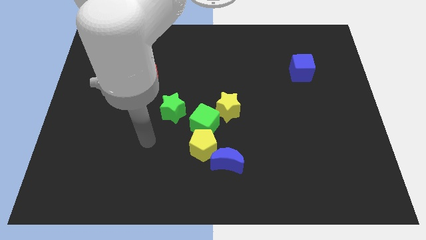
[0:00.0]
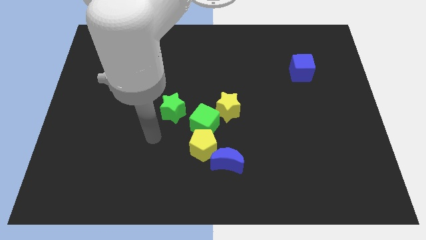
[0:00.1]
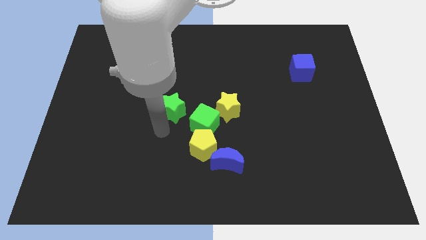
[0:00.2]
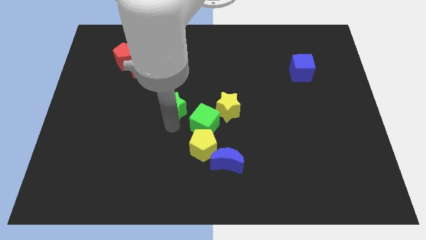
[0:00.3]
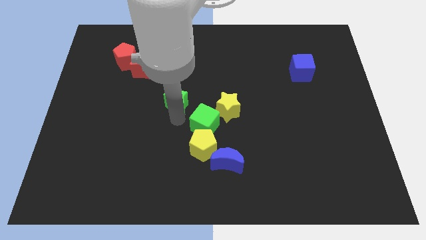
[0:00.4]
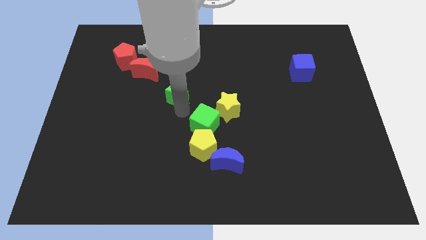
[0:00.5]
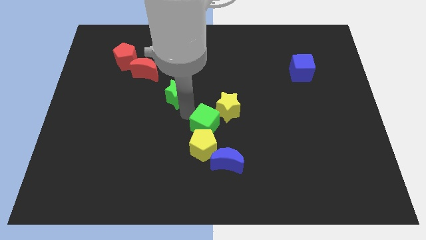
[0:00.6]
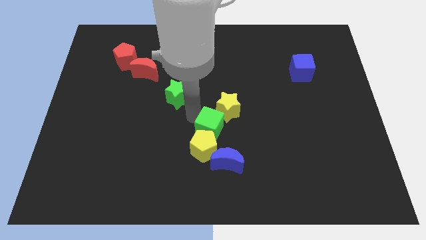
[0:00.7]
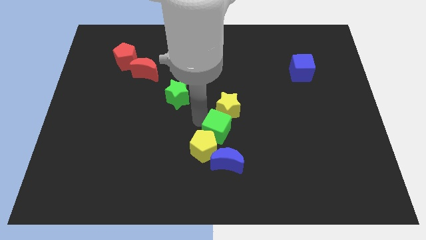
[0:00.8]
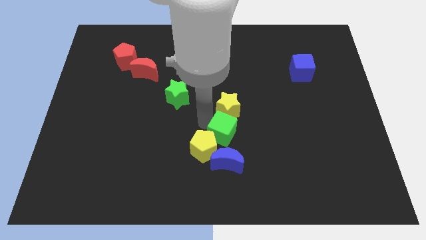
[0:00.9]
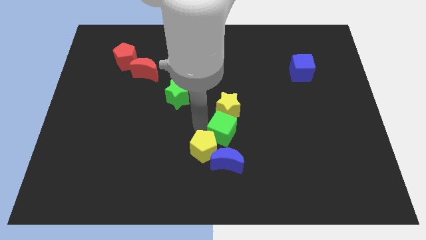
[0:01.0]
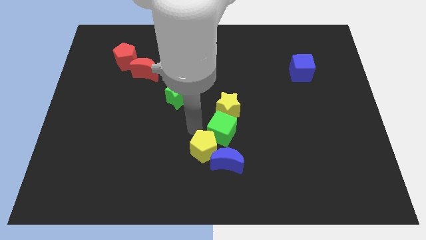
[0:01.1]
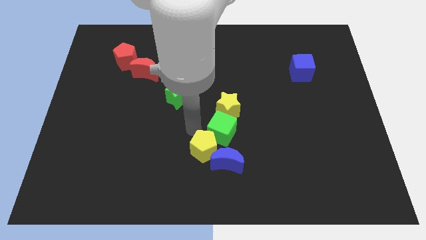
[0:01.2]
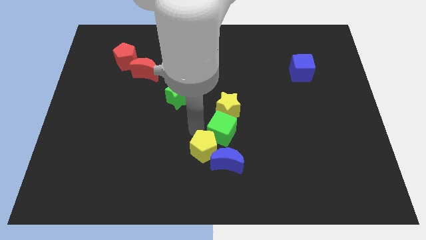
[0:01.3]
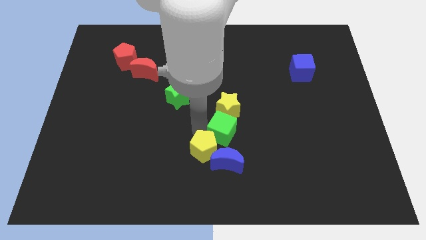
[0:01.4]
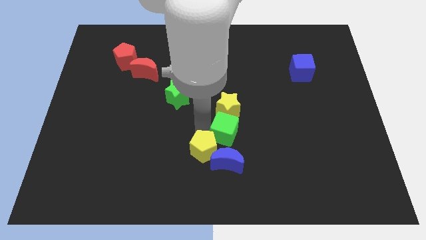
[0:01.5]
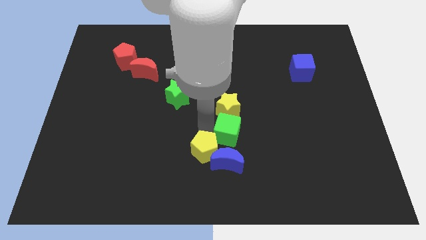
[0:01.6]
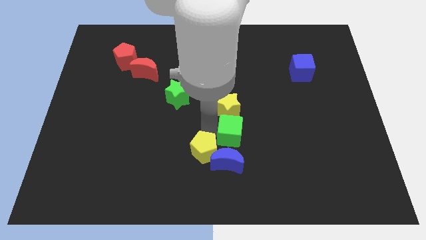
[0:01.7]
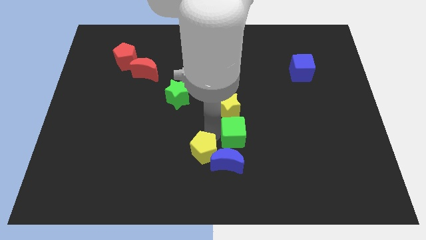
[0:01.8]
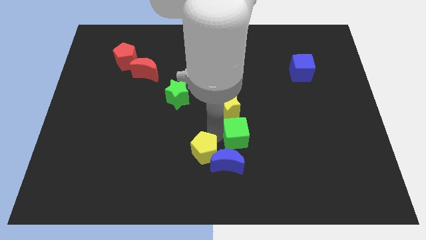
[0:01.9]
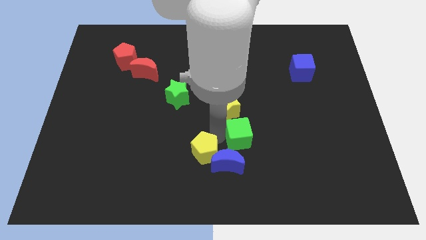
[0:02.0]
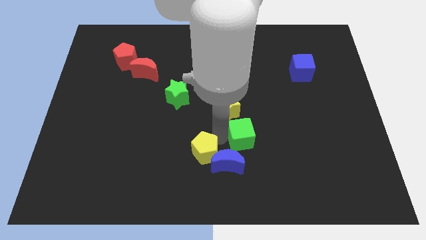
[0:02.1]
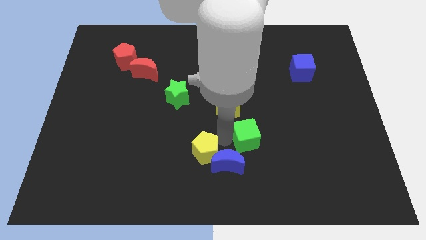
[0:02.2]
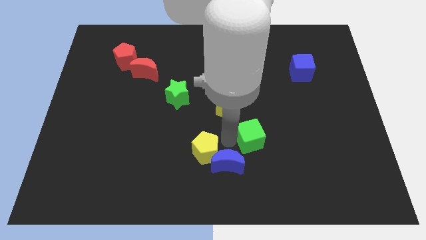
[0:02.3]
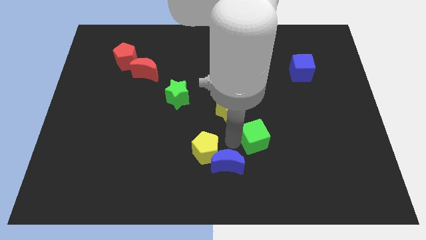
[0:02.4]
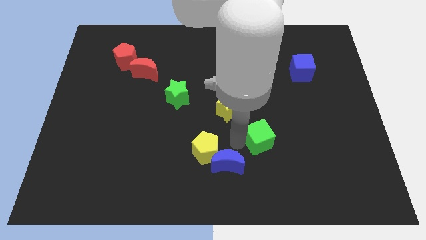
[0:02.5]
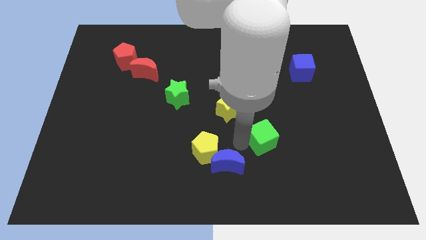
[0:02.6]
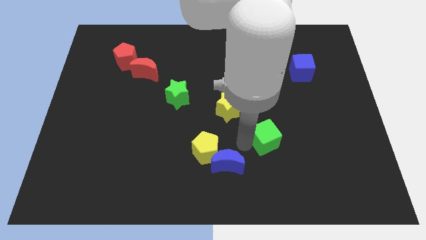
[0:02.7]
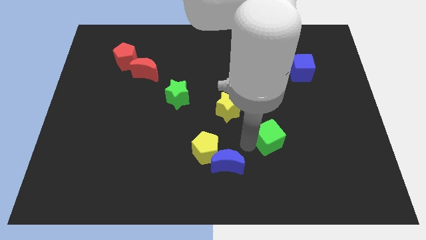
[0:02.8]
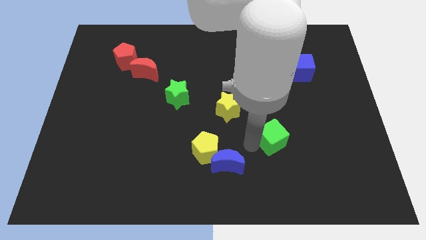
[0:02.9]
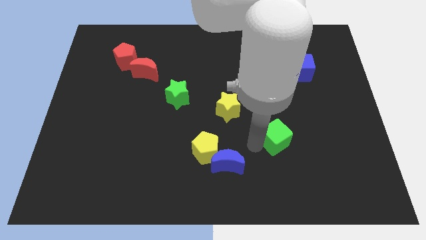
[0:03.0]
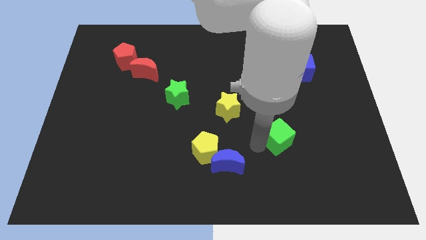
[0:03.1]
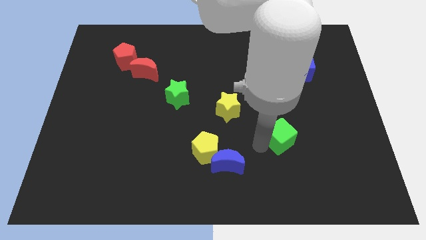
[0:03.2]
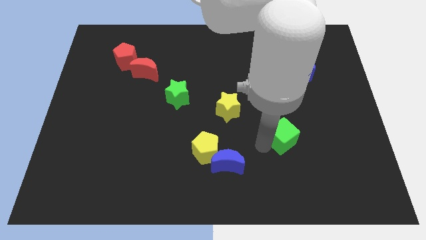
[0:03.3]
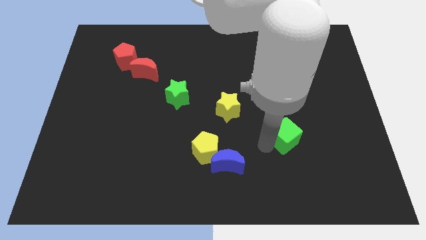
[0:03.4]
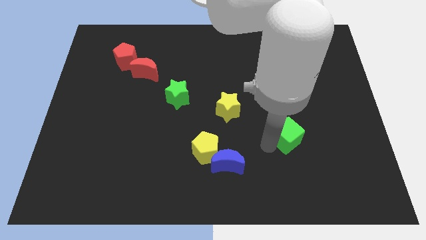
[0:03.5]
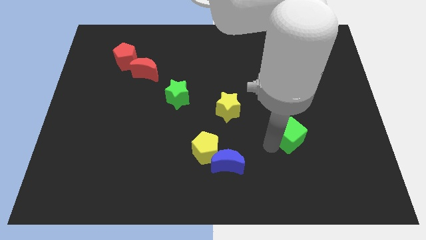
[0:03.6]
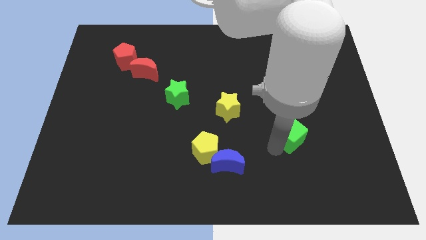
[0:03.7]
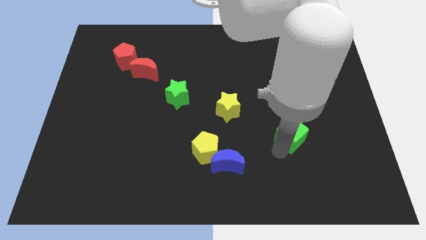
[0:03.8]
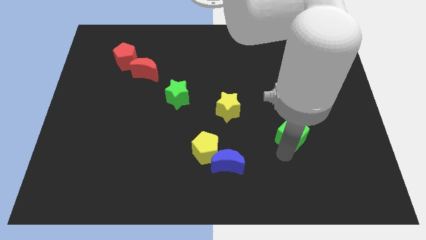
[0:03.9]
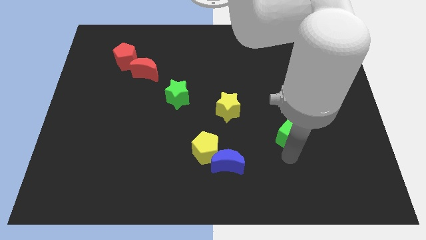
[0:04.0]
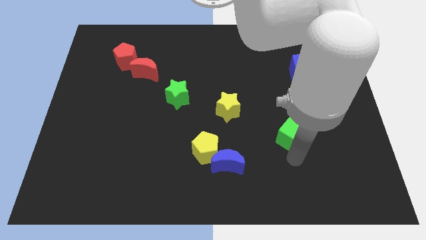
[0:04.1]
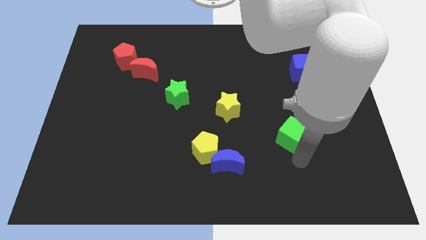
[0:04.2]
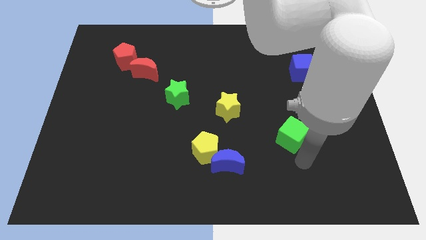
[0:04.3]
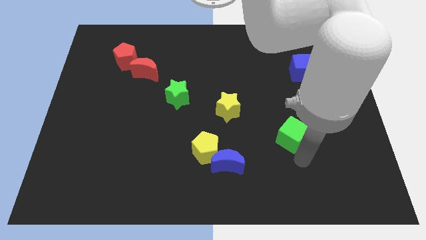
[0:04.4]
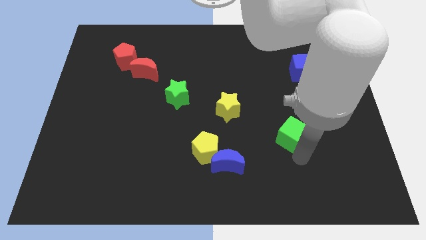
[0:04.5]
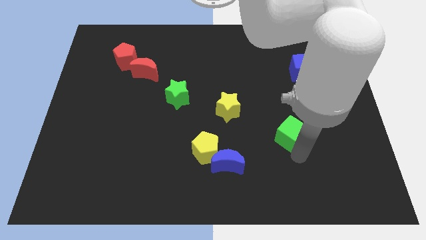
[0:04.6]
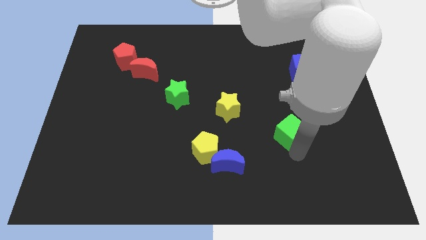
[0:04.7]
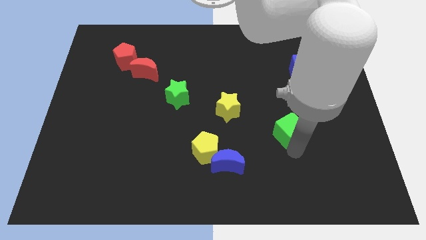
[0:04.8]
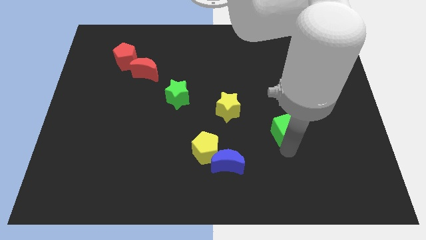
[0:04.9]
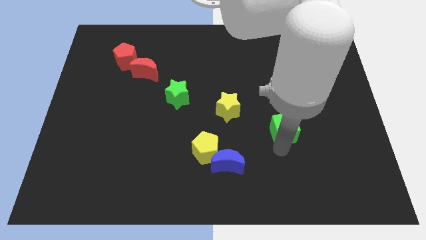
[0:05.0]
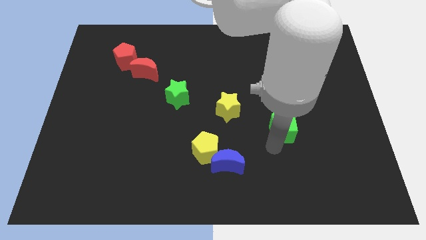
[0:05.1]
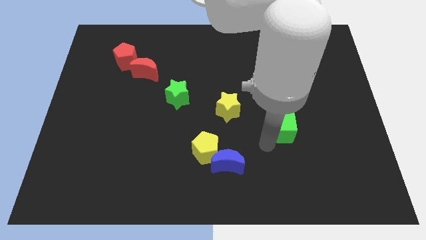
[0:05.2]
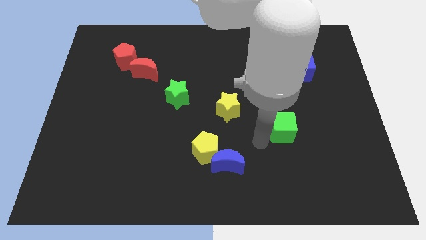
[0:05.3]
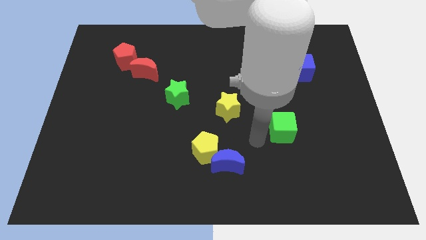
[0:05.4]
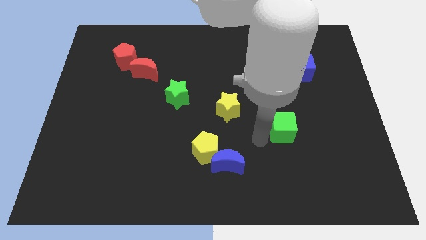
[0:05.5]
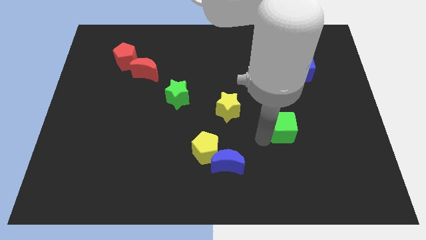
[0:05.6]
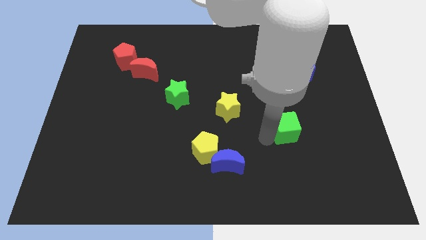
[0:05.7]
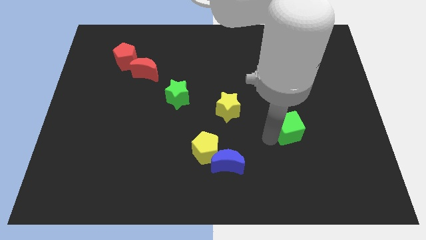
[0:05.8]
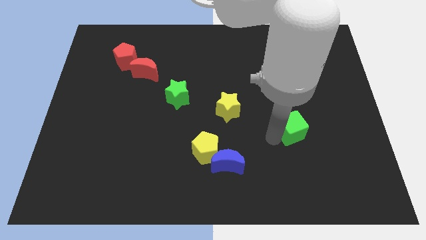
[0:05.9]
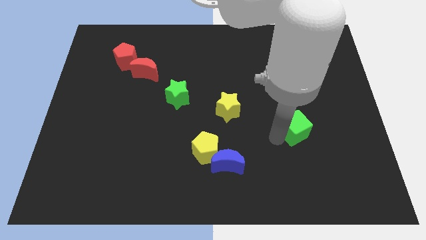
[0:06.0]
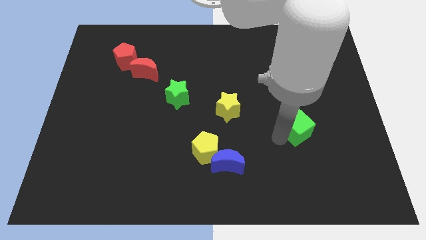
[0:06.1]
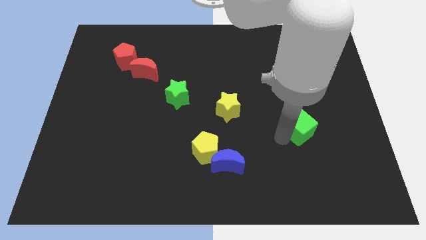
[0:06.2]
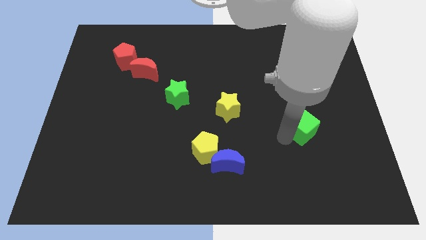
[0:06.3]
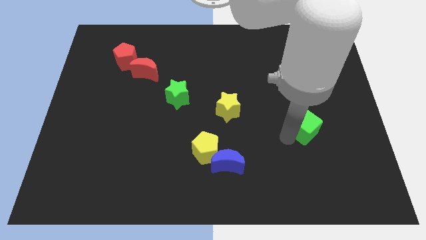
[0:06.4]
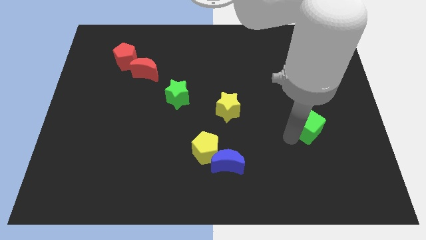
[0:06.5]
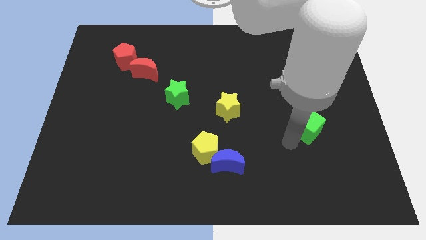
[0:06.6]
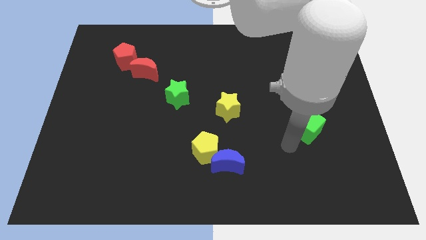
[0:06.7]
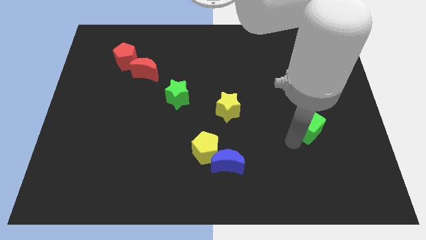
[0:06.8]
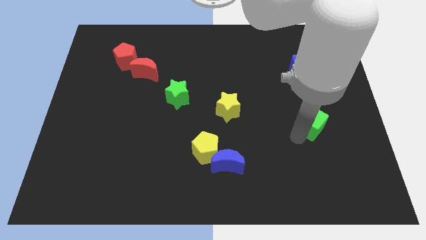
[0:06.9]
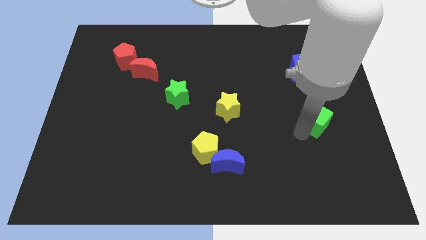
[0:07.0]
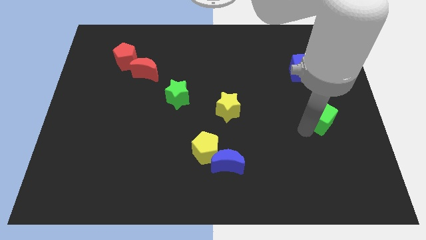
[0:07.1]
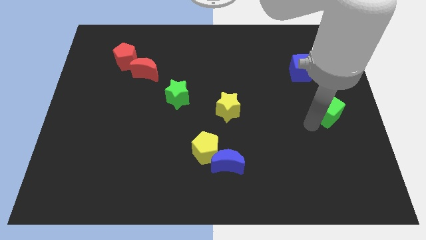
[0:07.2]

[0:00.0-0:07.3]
move the green cube to the right side of the board
